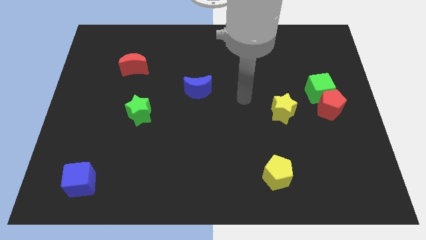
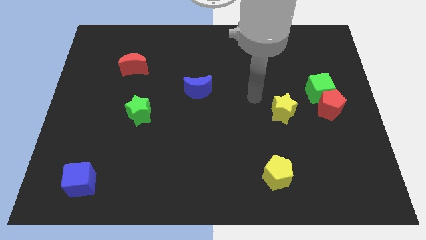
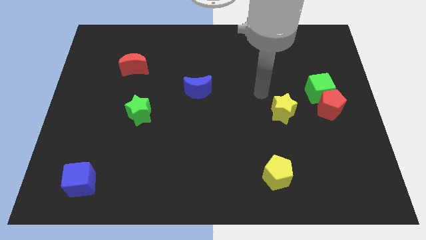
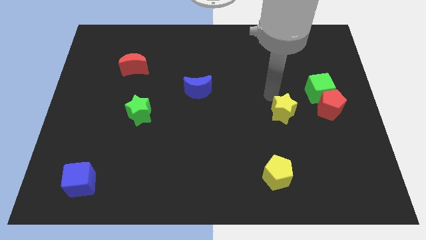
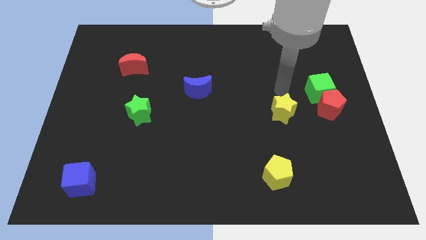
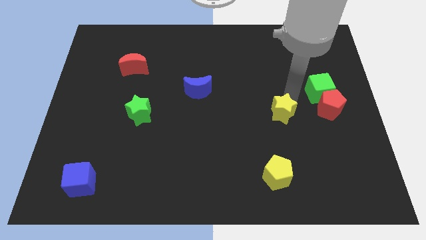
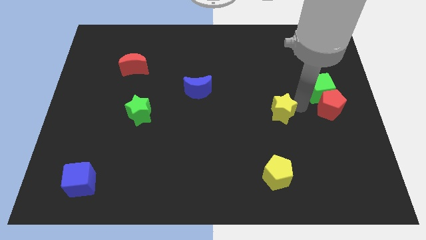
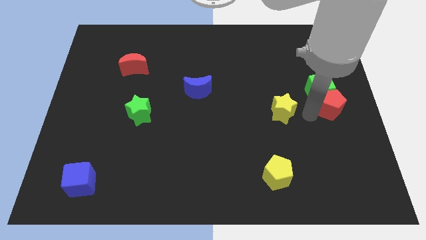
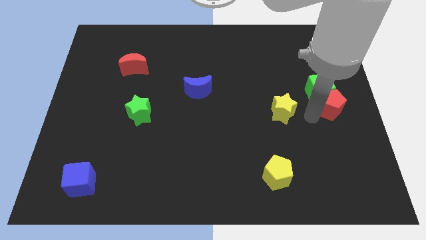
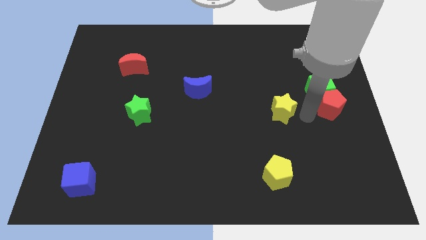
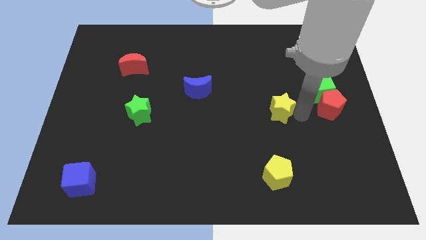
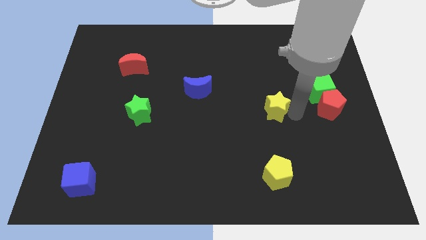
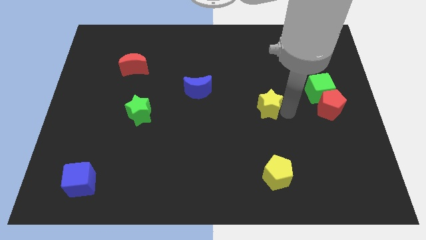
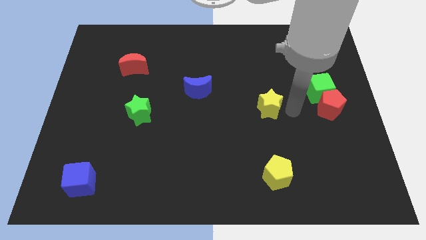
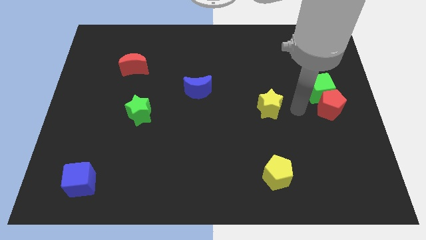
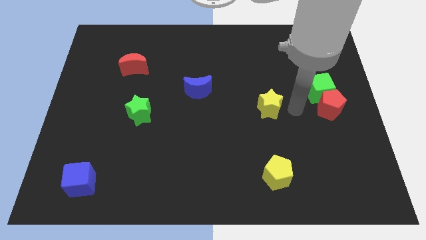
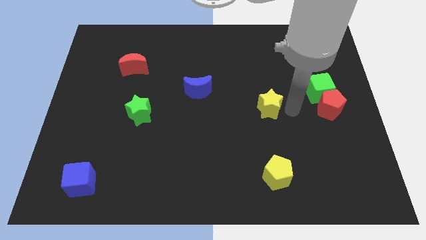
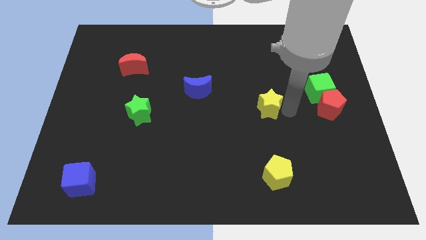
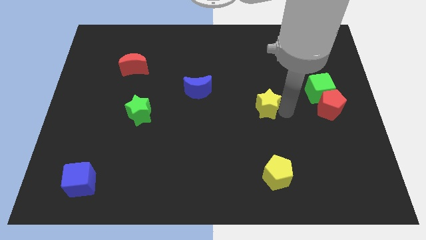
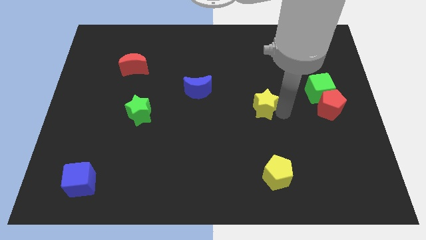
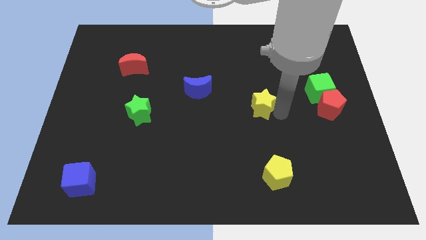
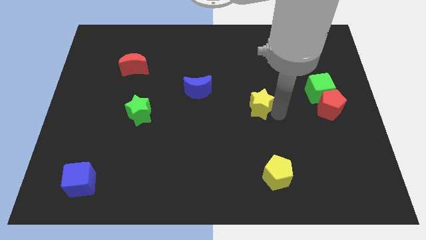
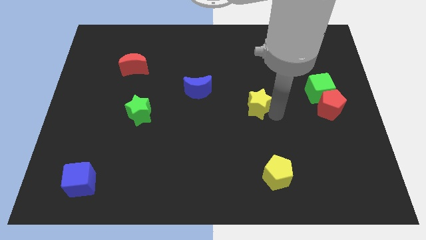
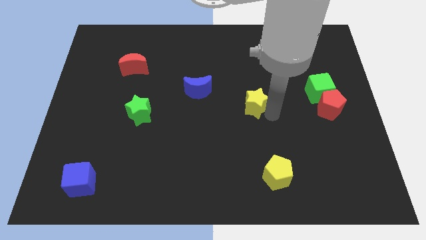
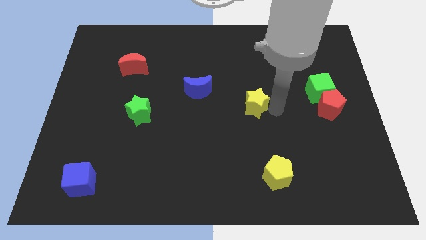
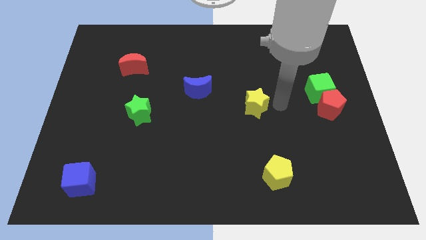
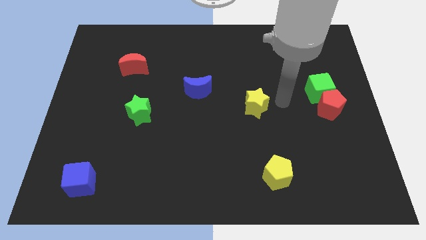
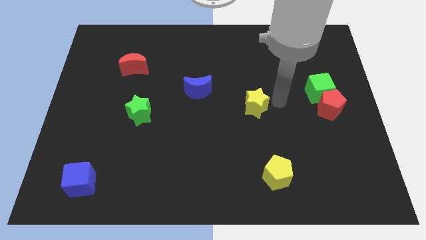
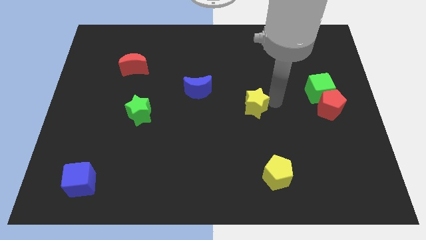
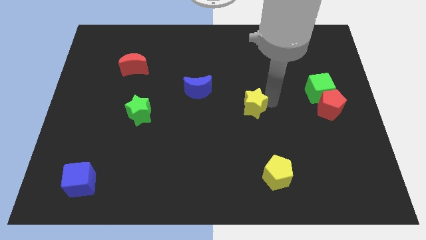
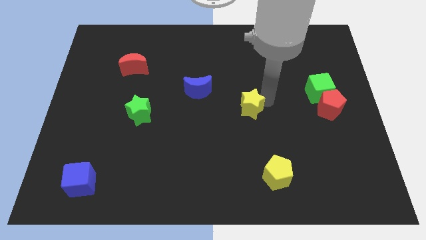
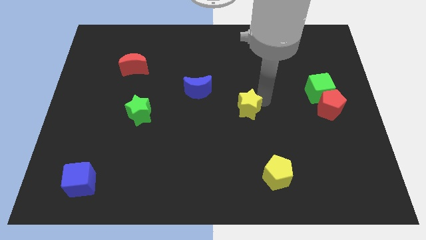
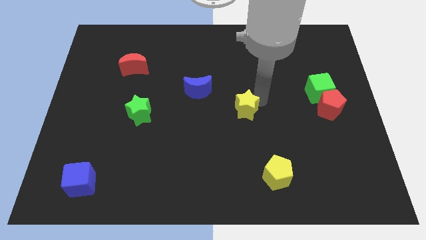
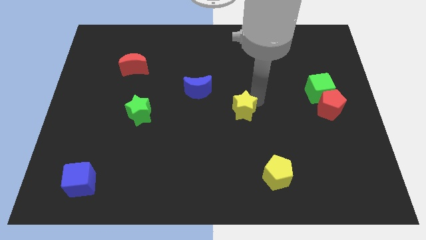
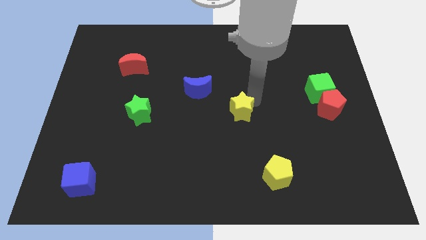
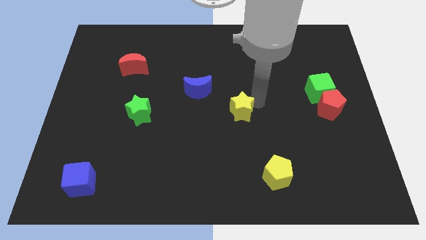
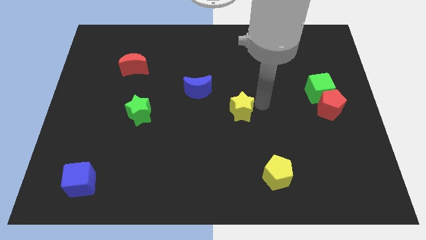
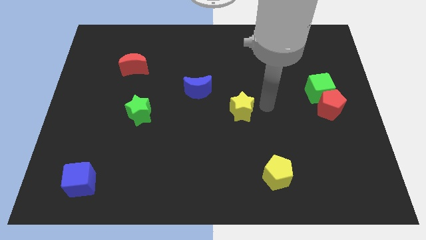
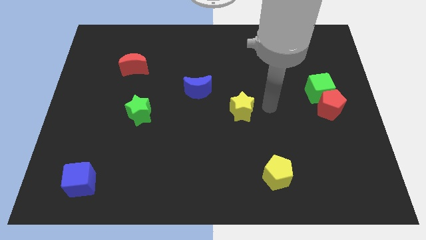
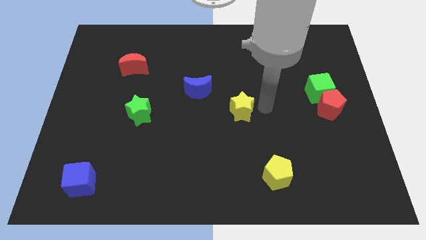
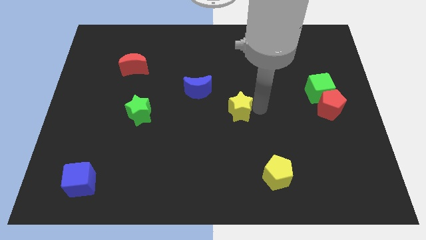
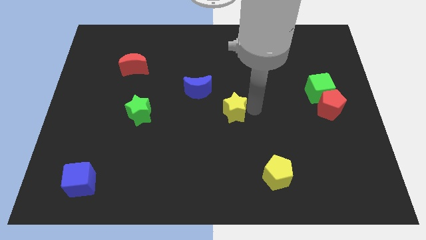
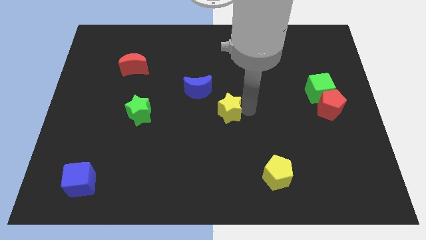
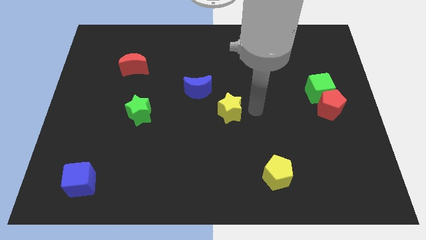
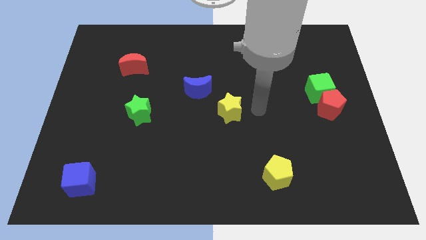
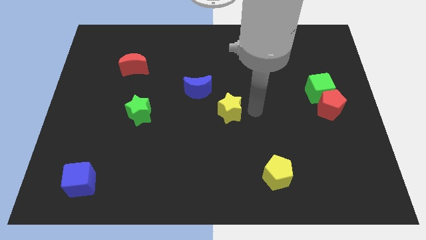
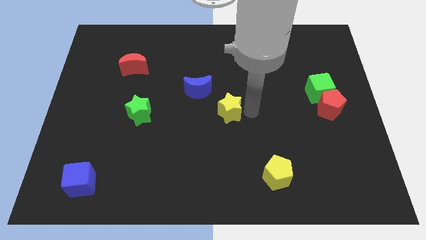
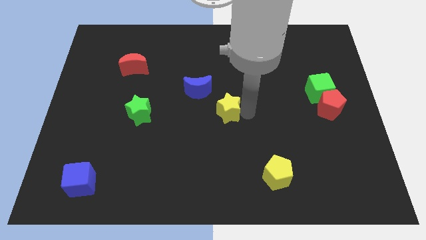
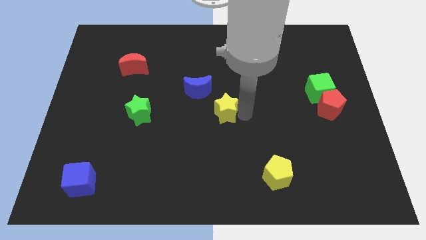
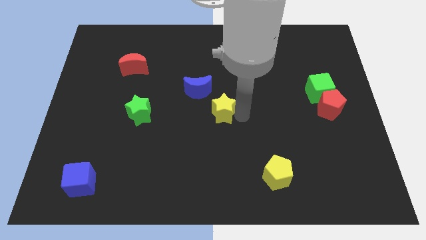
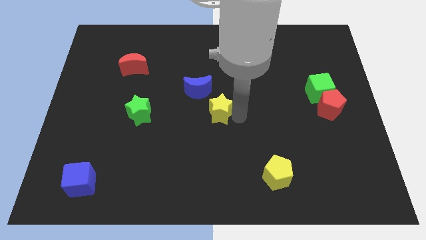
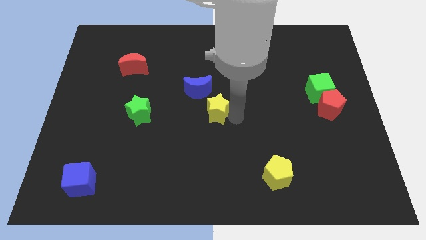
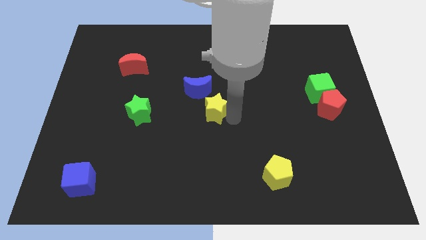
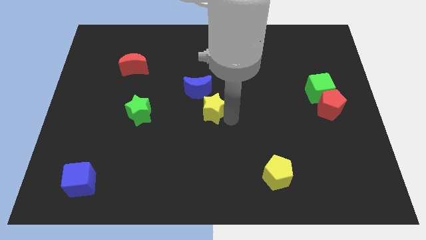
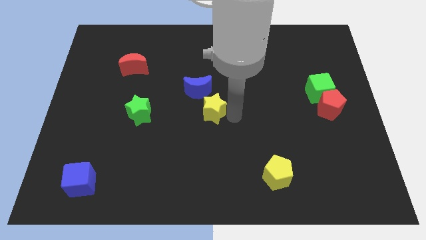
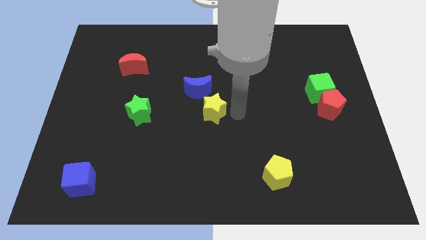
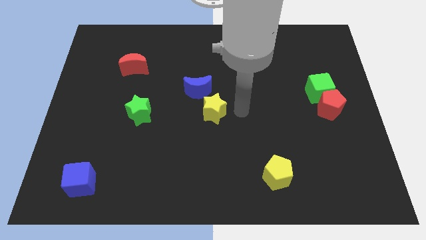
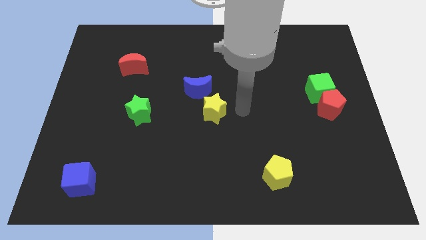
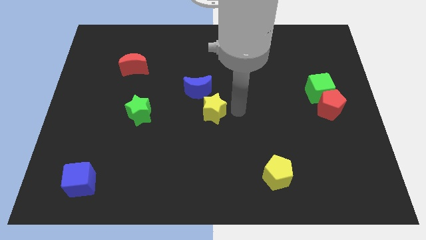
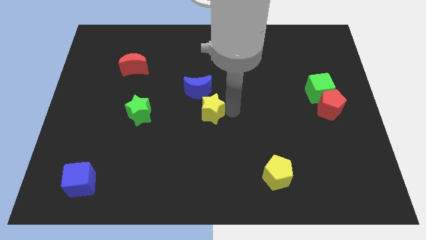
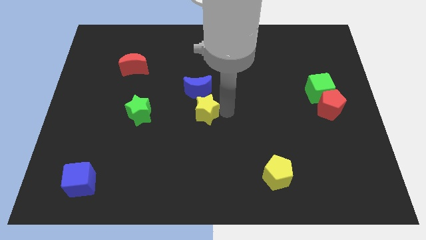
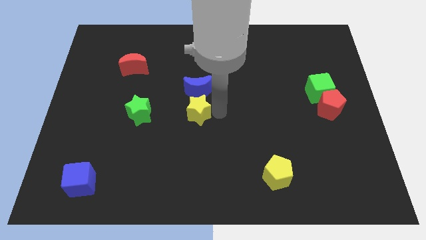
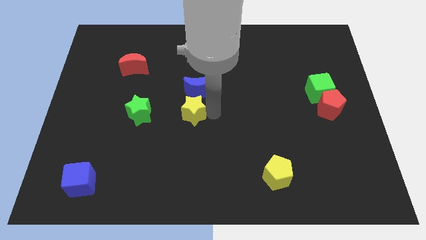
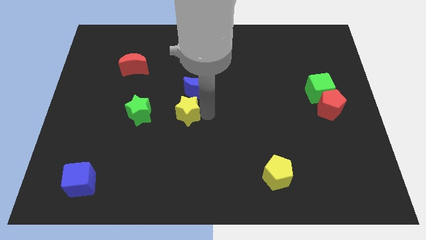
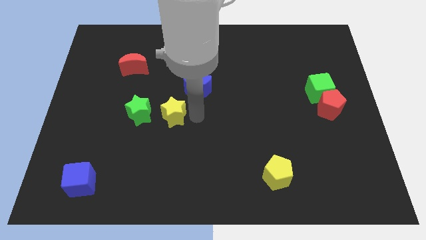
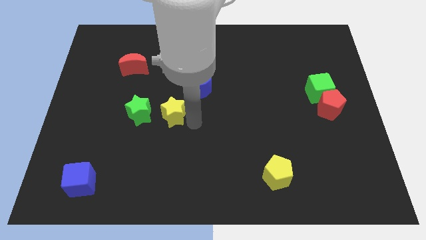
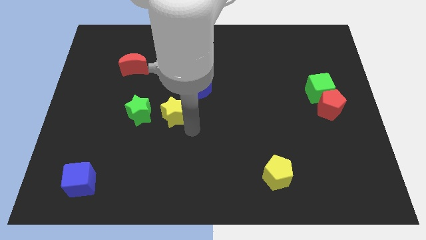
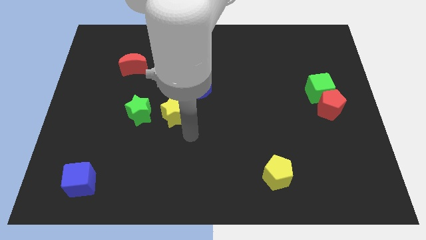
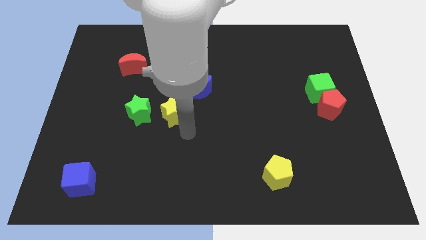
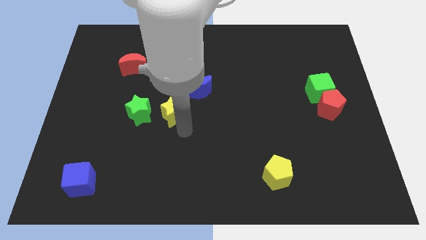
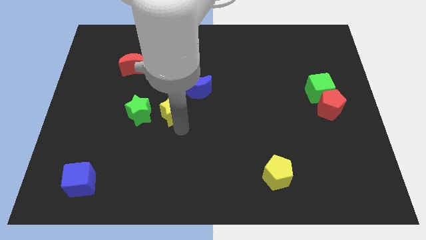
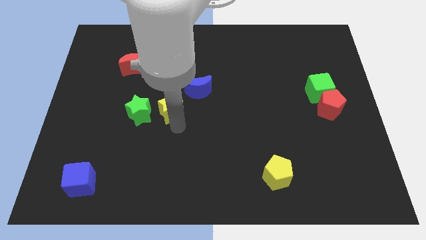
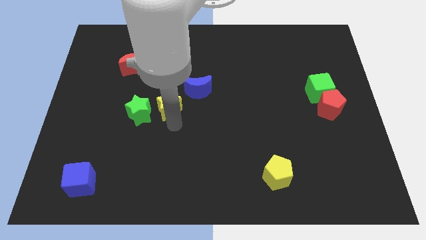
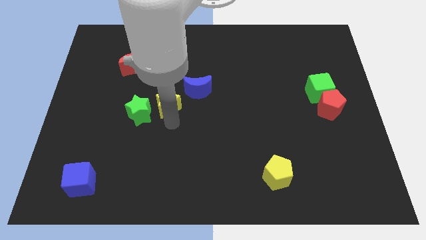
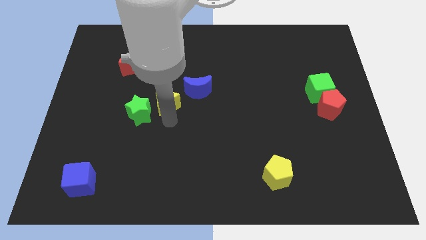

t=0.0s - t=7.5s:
slide the yellow star left of the blue moon
